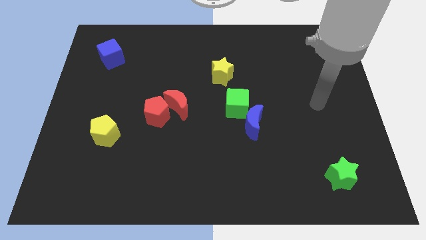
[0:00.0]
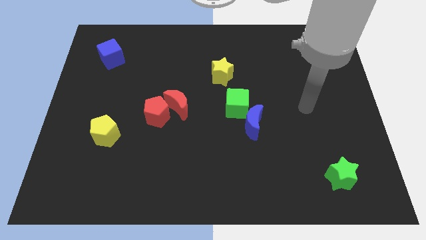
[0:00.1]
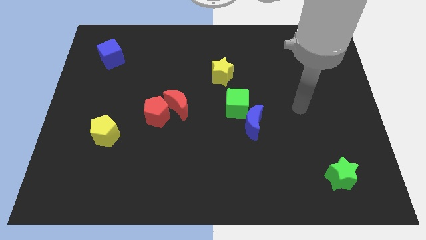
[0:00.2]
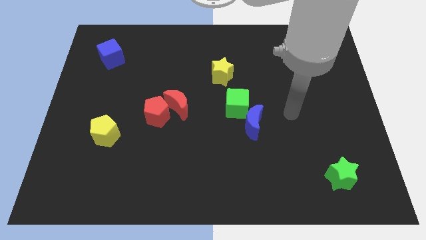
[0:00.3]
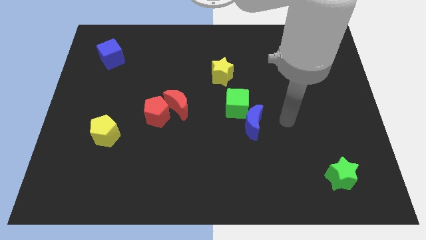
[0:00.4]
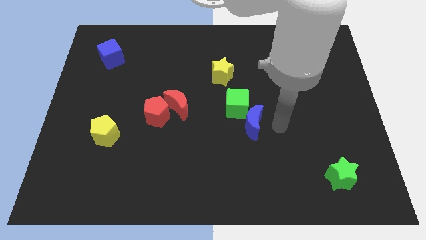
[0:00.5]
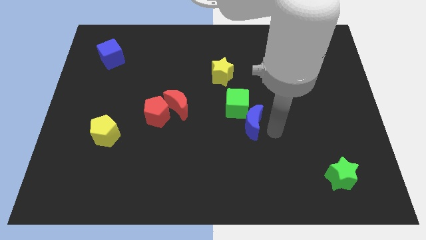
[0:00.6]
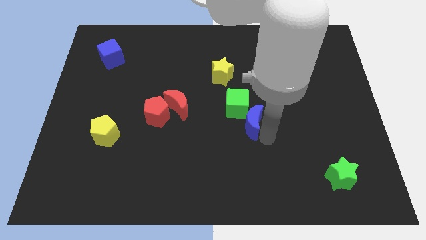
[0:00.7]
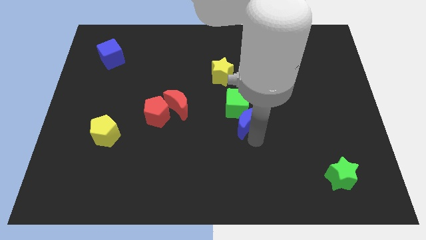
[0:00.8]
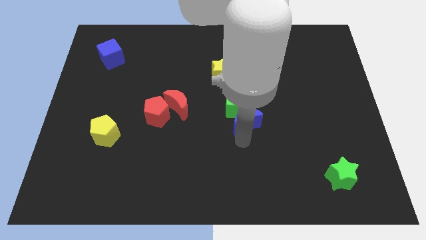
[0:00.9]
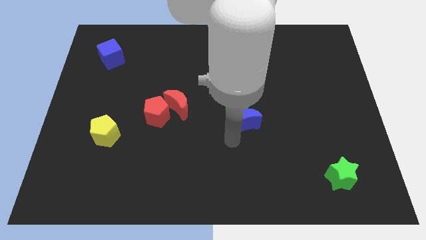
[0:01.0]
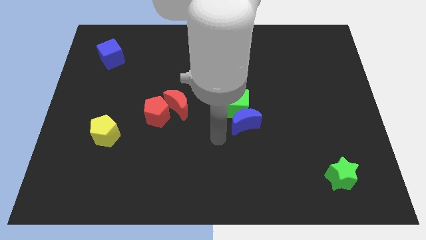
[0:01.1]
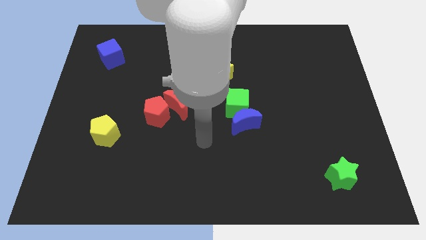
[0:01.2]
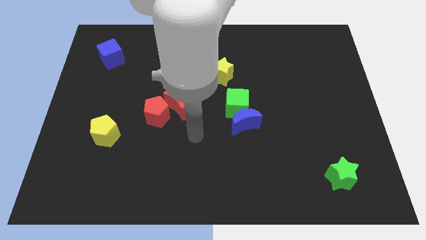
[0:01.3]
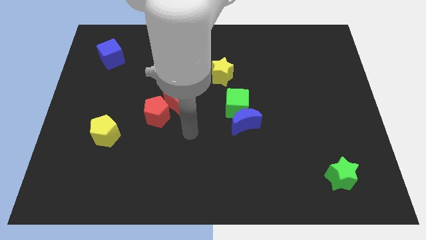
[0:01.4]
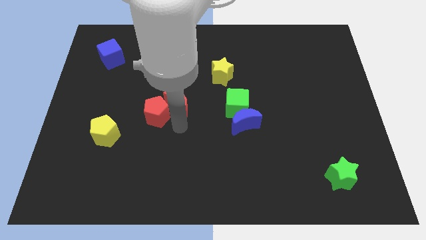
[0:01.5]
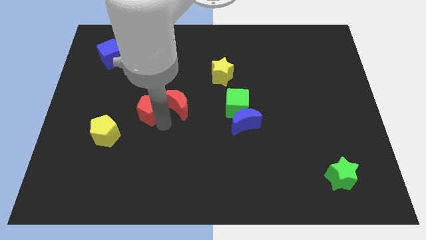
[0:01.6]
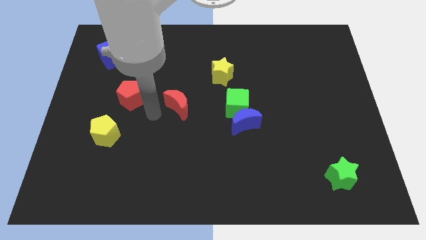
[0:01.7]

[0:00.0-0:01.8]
pull the red moon apart from the red pentagon

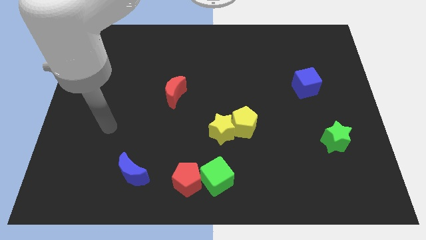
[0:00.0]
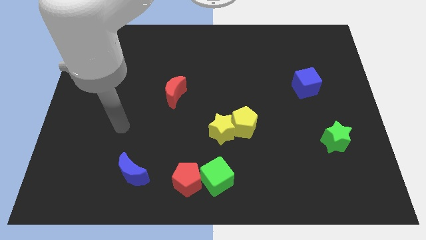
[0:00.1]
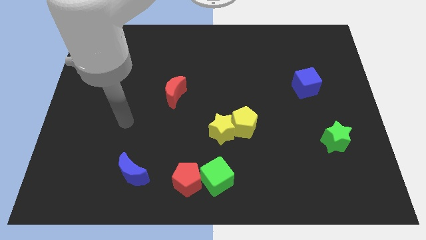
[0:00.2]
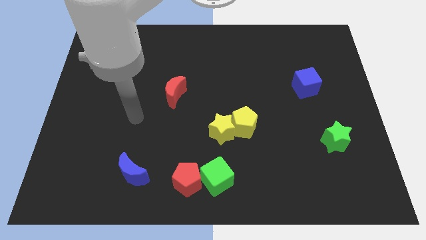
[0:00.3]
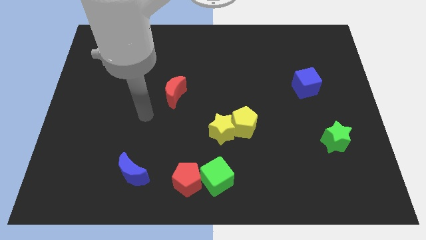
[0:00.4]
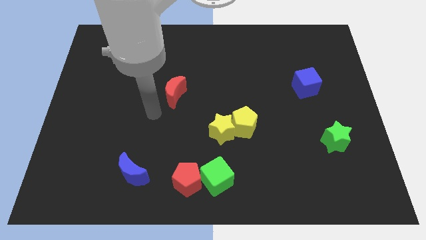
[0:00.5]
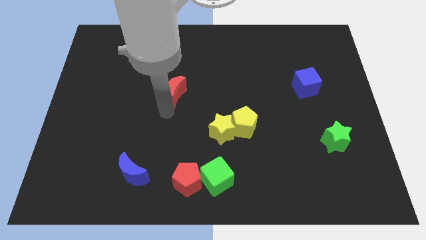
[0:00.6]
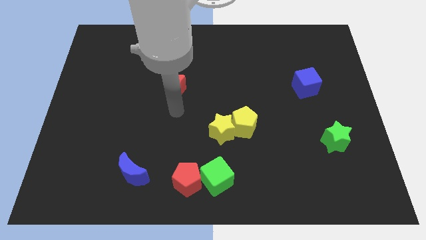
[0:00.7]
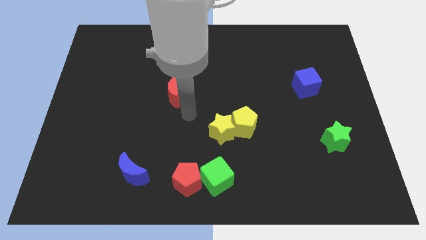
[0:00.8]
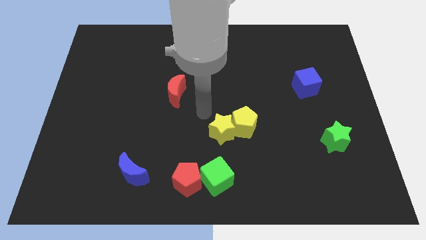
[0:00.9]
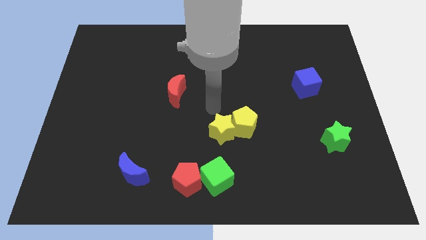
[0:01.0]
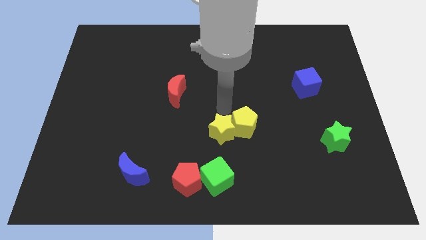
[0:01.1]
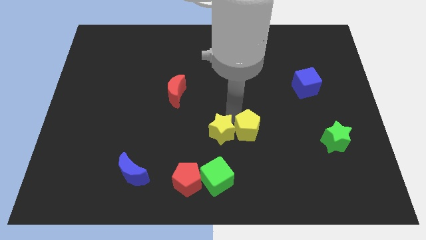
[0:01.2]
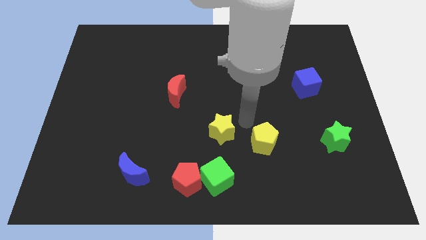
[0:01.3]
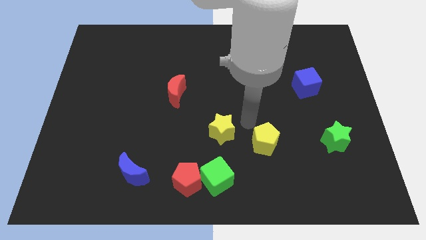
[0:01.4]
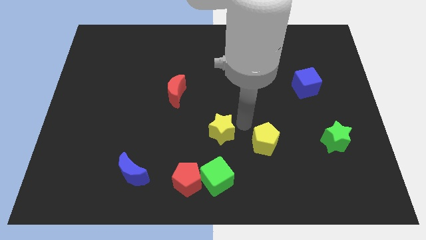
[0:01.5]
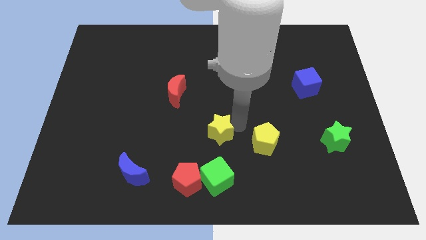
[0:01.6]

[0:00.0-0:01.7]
pull the yellow star apart from the yellow pentagon

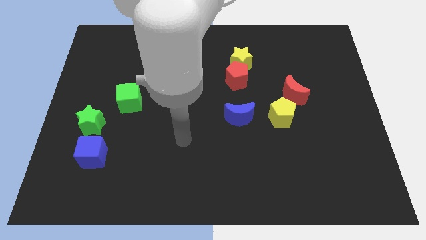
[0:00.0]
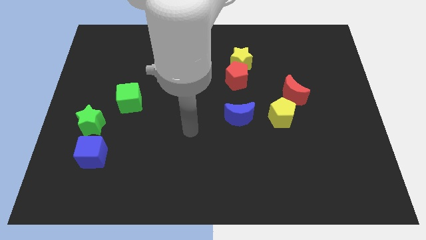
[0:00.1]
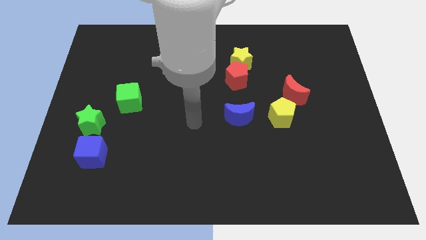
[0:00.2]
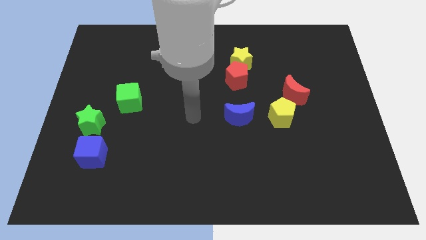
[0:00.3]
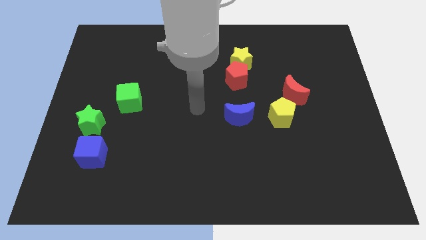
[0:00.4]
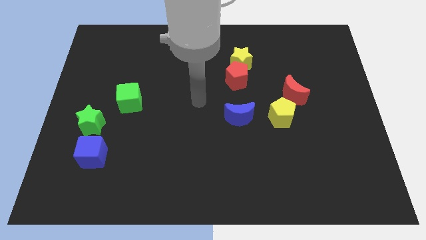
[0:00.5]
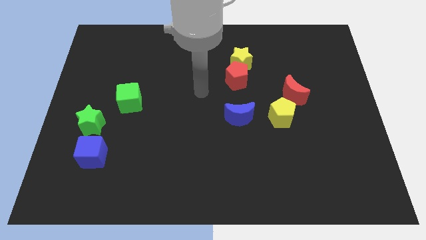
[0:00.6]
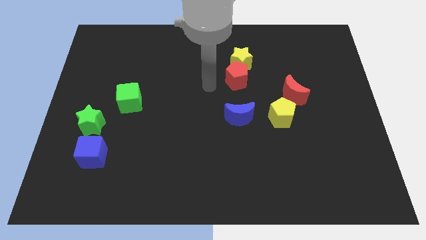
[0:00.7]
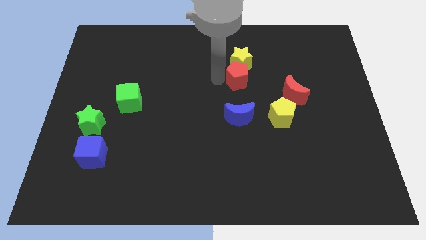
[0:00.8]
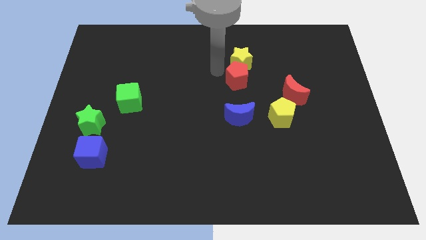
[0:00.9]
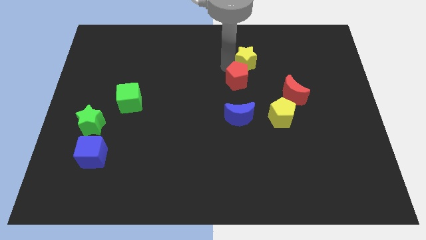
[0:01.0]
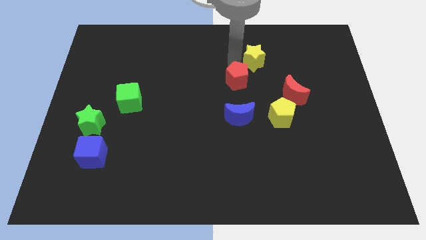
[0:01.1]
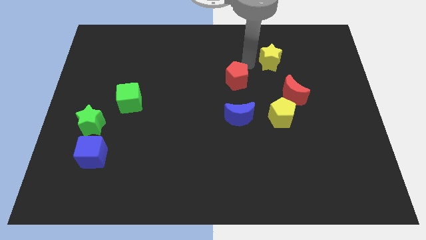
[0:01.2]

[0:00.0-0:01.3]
move the red pentagon away from the yellow star

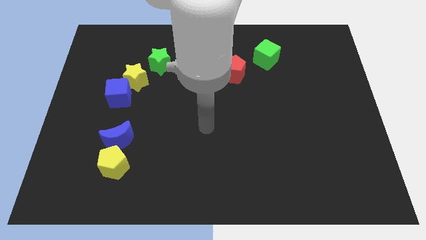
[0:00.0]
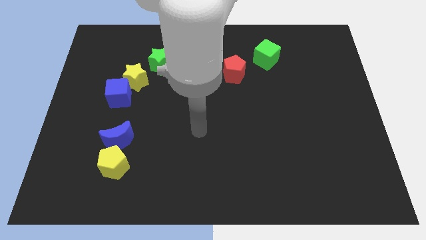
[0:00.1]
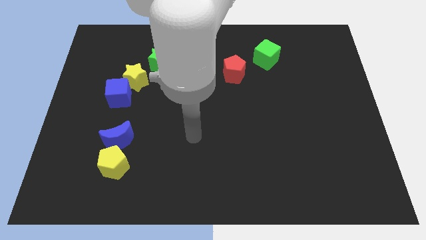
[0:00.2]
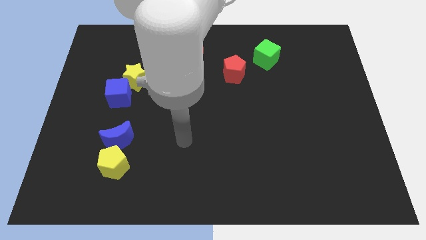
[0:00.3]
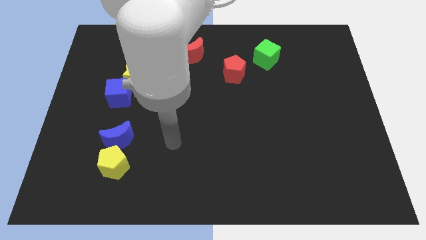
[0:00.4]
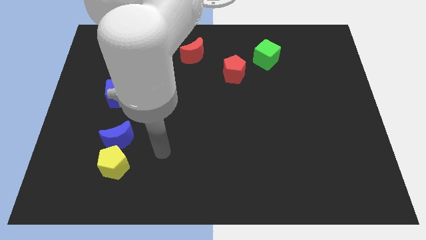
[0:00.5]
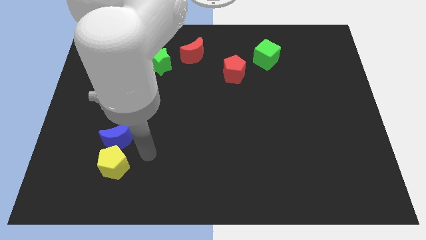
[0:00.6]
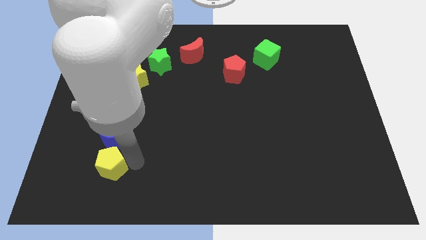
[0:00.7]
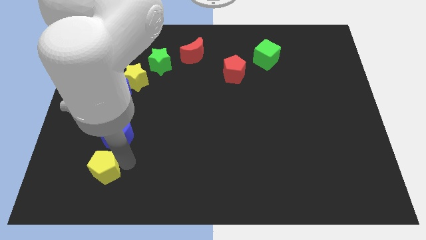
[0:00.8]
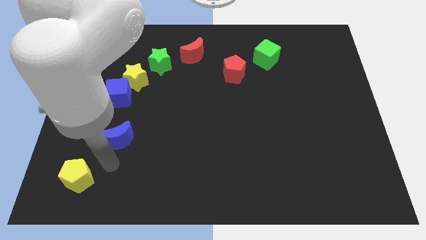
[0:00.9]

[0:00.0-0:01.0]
separate the blue moon from the yellow pentagon

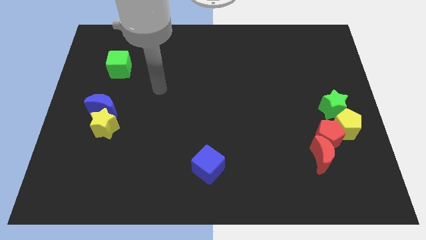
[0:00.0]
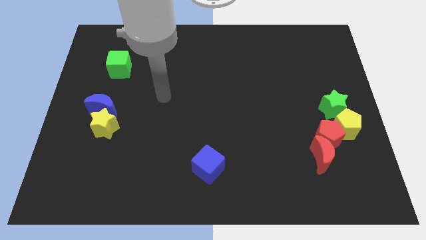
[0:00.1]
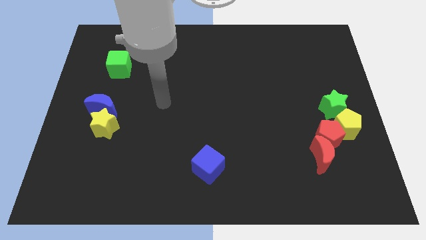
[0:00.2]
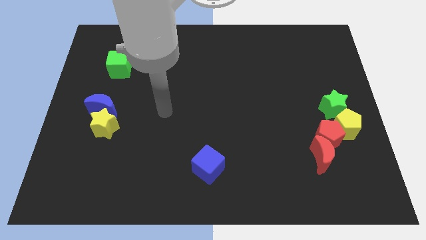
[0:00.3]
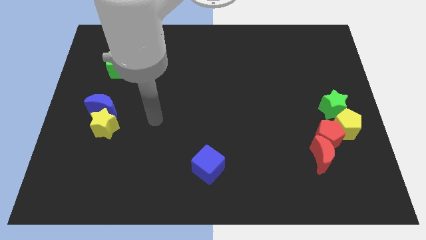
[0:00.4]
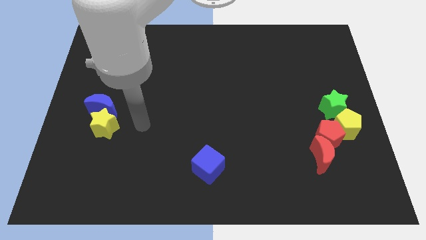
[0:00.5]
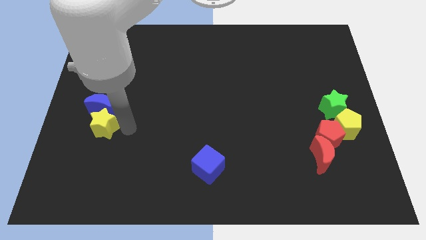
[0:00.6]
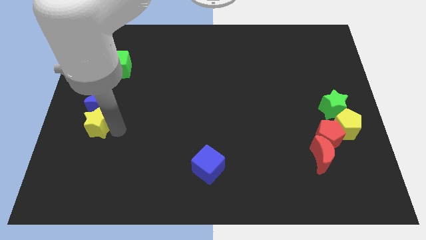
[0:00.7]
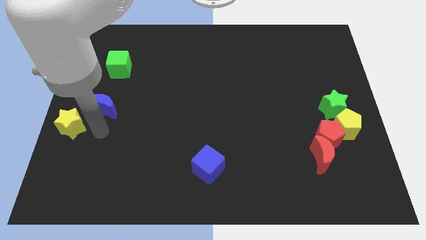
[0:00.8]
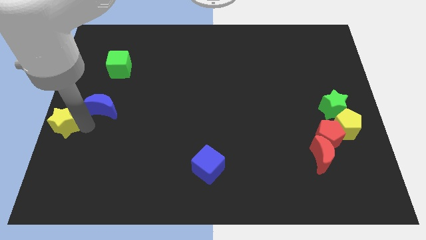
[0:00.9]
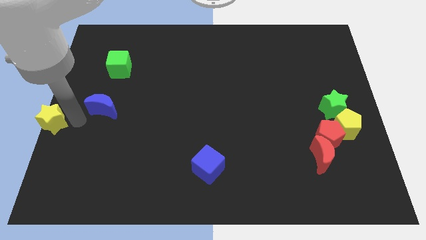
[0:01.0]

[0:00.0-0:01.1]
move the blue moon away from the yellow star

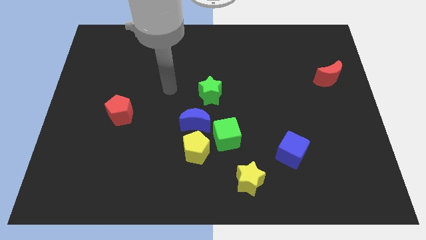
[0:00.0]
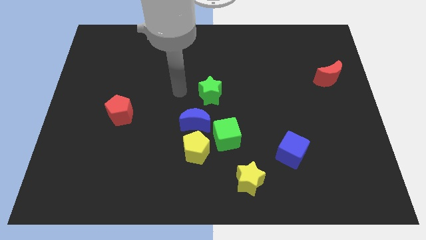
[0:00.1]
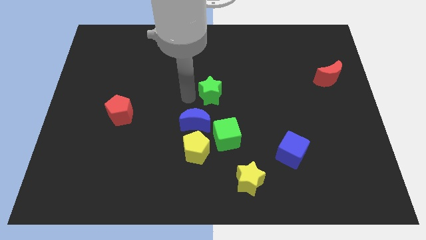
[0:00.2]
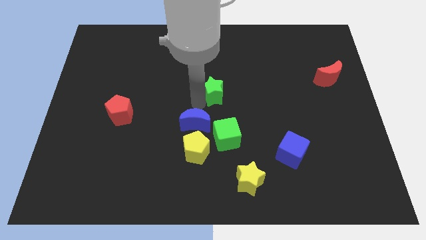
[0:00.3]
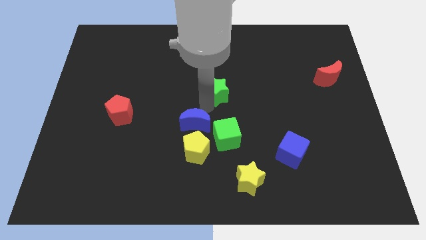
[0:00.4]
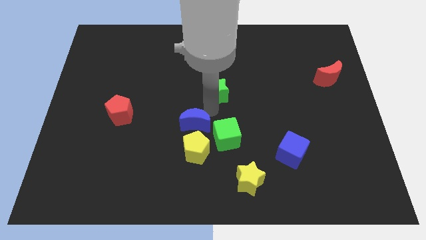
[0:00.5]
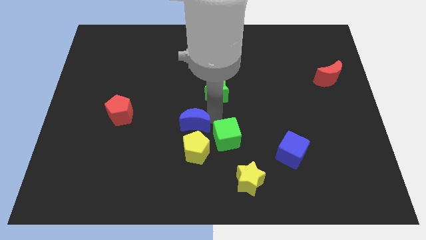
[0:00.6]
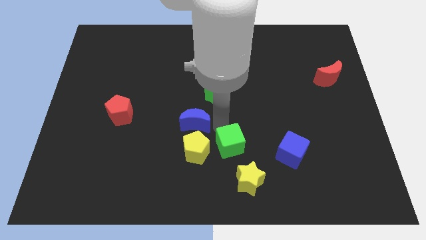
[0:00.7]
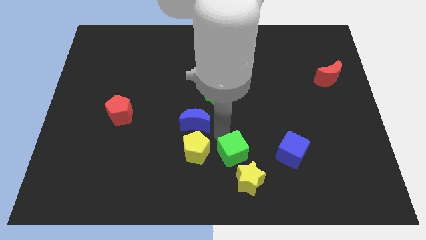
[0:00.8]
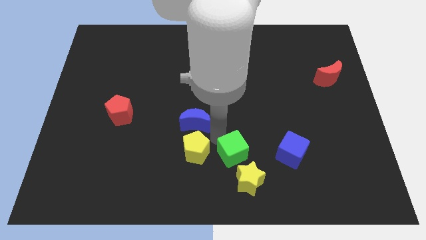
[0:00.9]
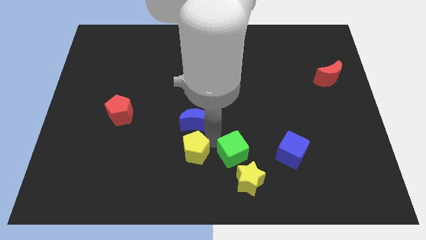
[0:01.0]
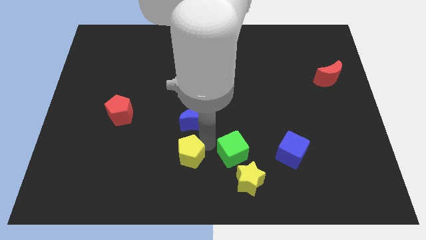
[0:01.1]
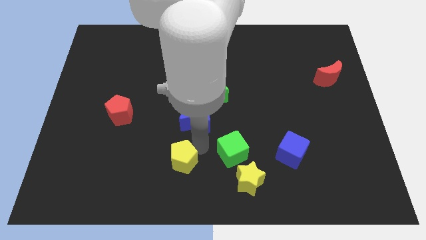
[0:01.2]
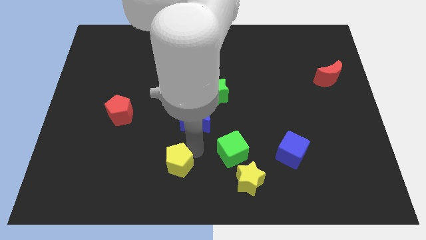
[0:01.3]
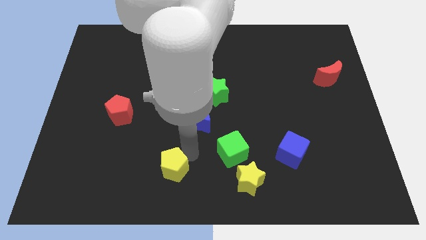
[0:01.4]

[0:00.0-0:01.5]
pull the yellow pentagon apart from the blue moon and green cube

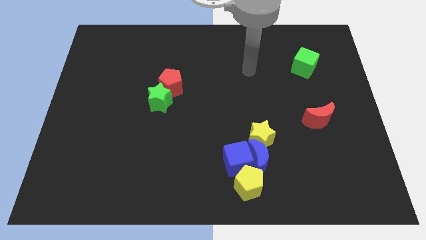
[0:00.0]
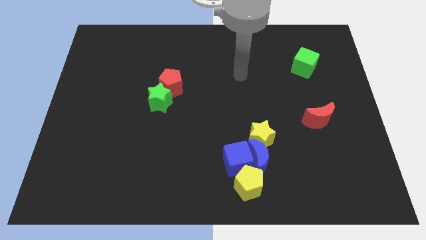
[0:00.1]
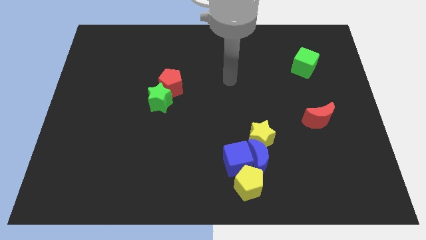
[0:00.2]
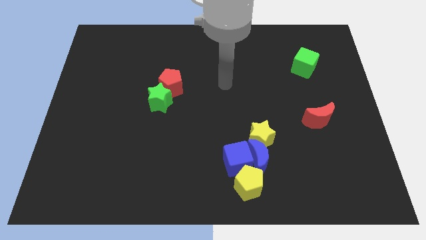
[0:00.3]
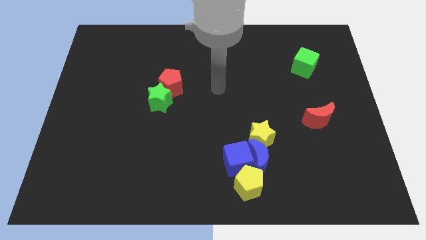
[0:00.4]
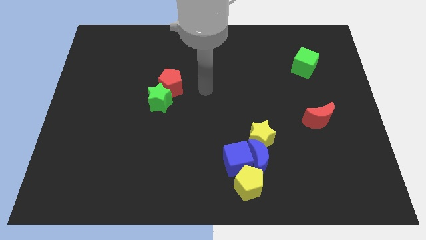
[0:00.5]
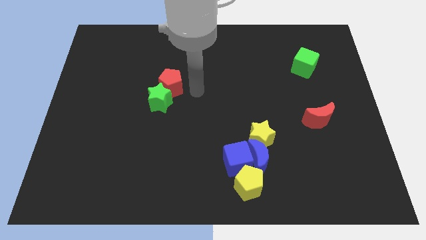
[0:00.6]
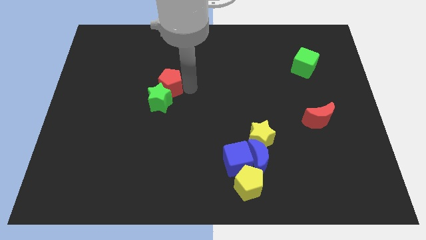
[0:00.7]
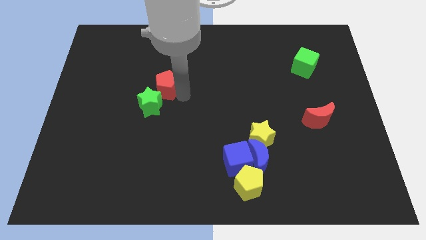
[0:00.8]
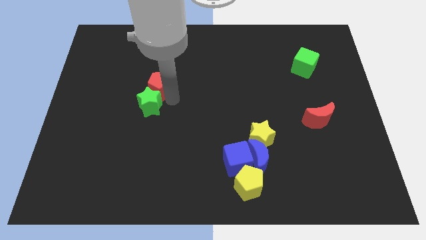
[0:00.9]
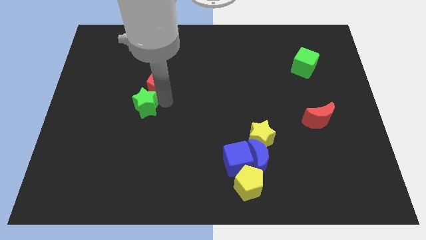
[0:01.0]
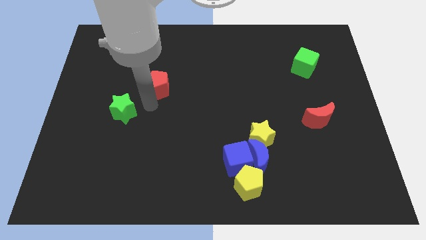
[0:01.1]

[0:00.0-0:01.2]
move the red pentagon away from the green star
